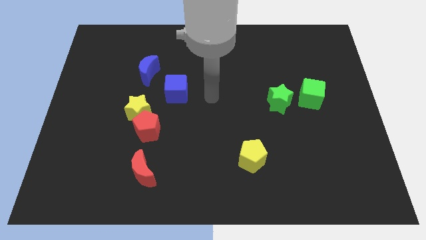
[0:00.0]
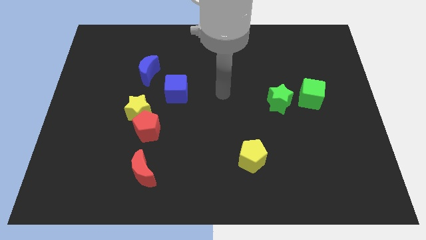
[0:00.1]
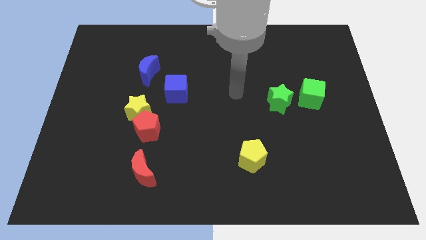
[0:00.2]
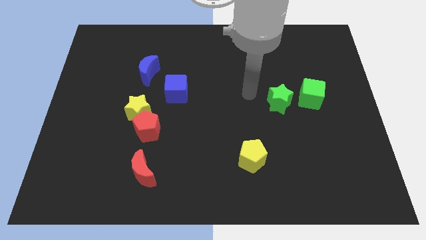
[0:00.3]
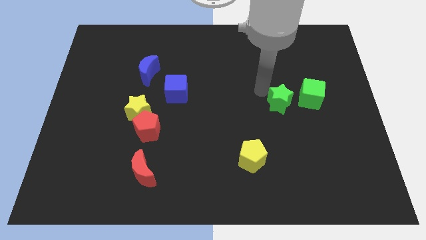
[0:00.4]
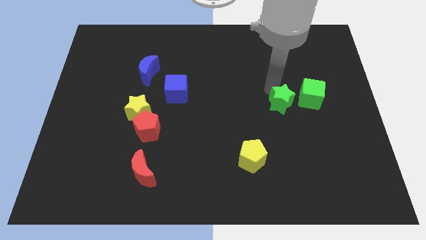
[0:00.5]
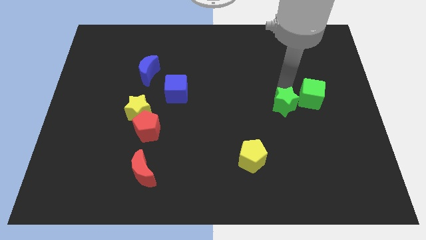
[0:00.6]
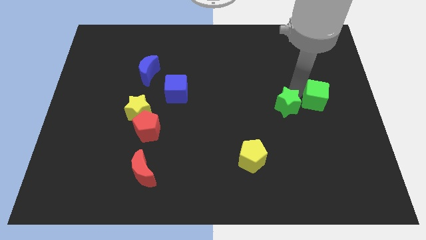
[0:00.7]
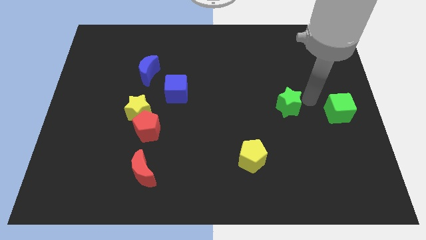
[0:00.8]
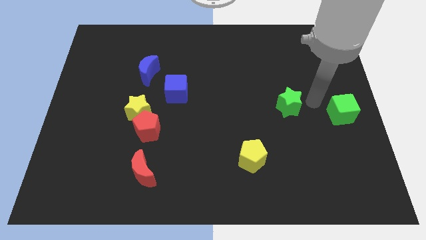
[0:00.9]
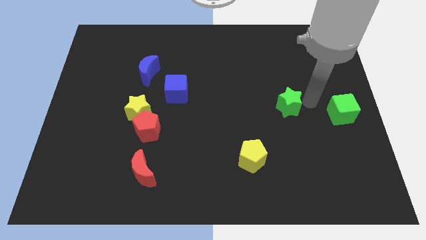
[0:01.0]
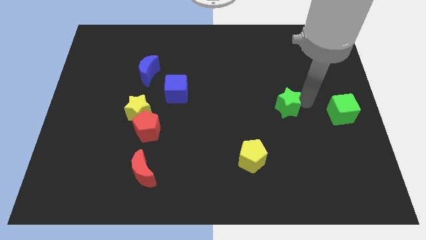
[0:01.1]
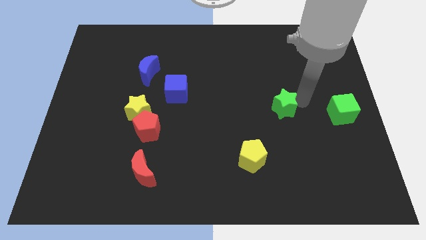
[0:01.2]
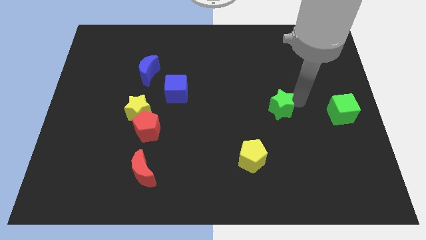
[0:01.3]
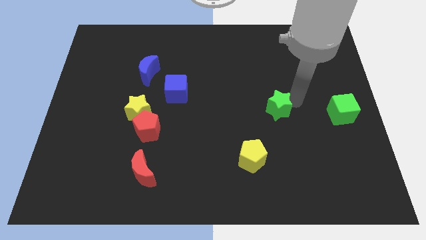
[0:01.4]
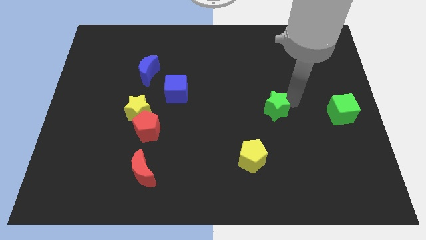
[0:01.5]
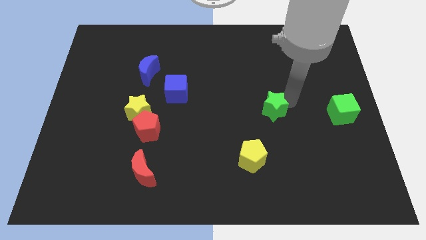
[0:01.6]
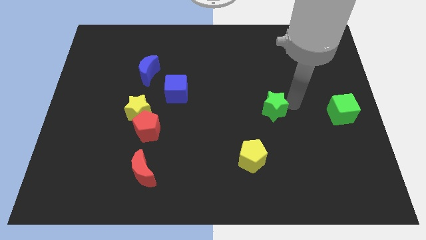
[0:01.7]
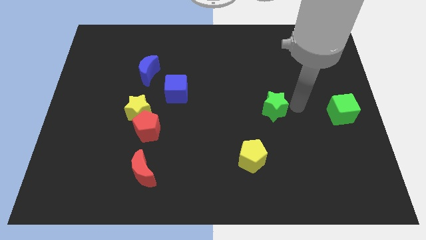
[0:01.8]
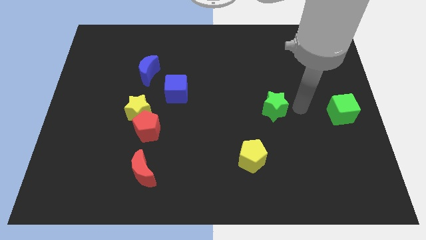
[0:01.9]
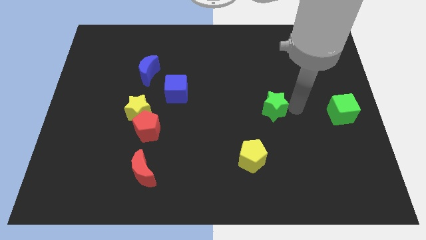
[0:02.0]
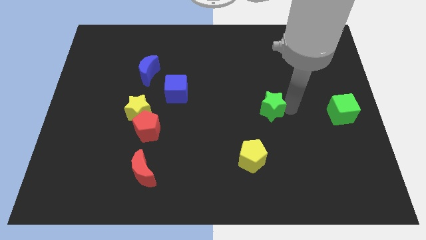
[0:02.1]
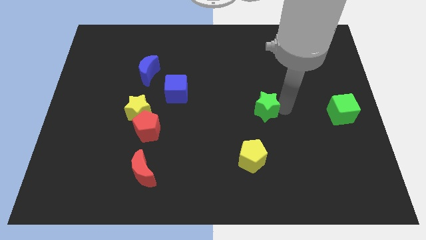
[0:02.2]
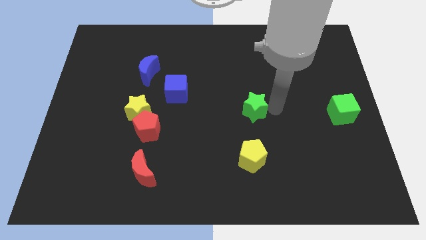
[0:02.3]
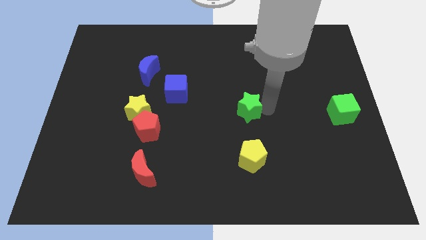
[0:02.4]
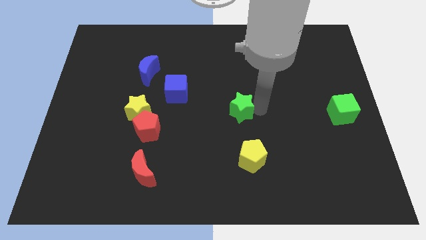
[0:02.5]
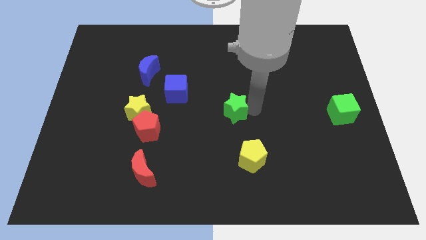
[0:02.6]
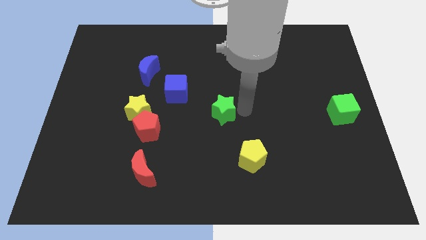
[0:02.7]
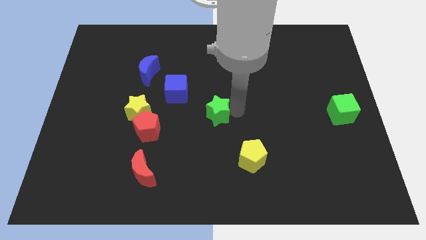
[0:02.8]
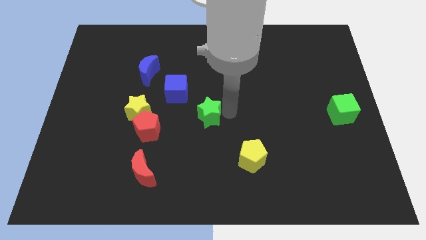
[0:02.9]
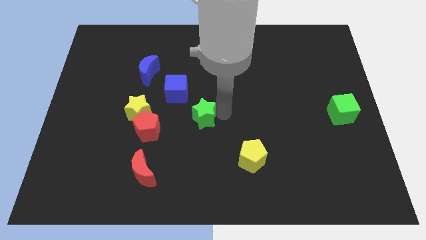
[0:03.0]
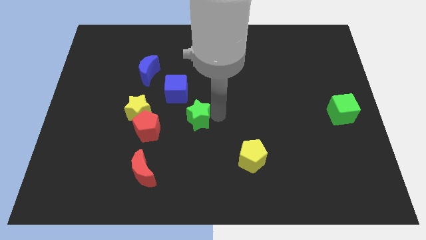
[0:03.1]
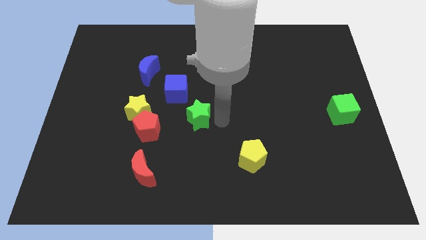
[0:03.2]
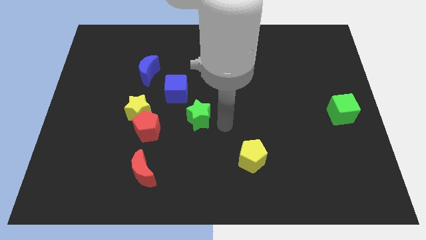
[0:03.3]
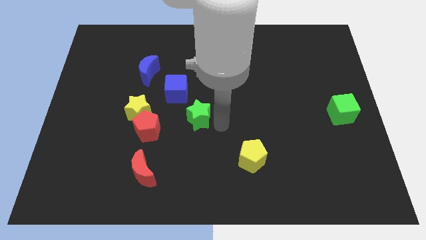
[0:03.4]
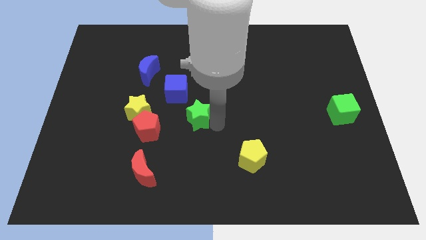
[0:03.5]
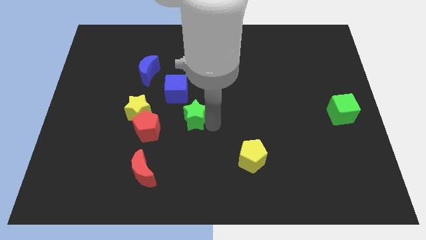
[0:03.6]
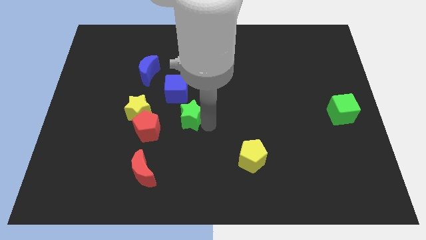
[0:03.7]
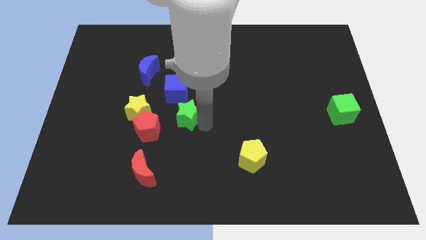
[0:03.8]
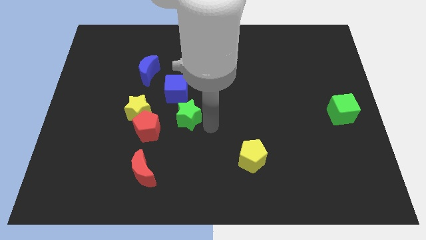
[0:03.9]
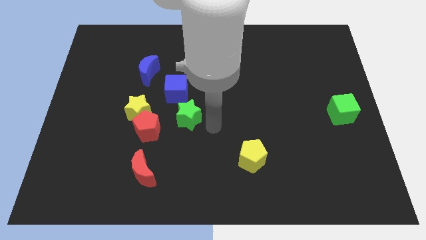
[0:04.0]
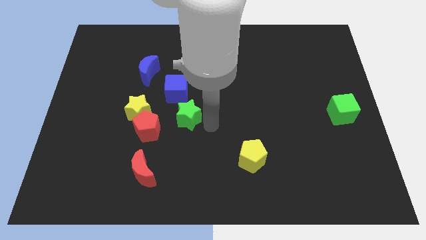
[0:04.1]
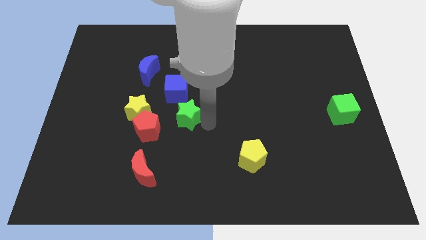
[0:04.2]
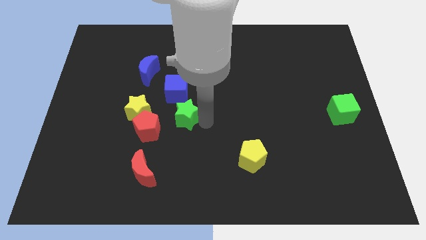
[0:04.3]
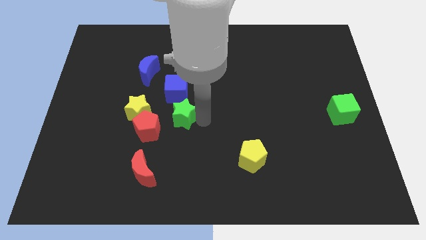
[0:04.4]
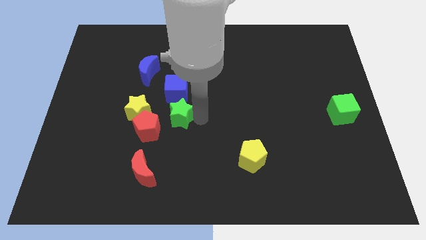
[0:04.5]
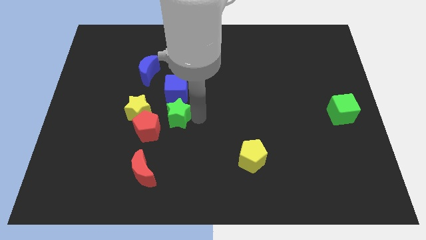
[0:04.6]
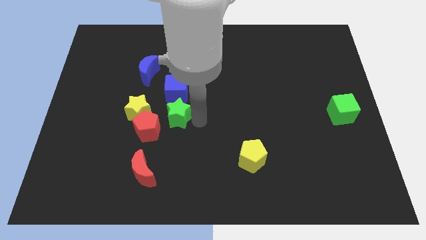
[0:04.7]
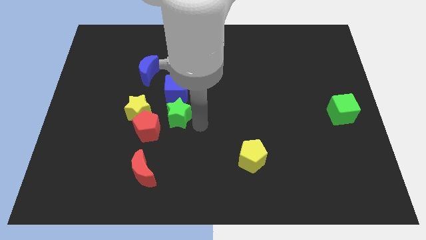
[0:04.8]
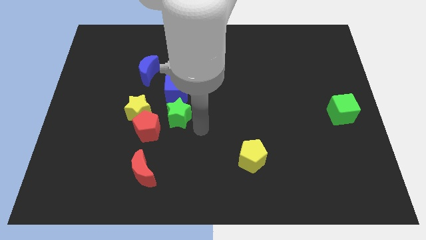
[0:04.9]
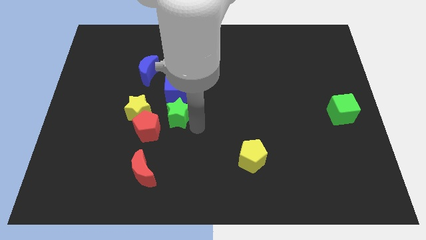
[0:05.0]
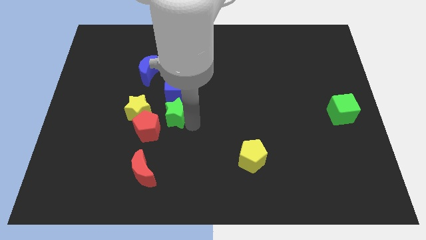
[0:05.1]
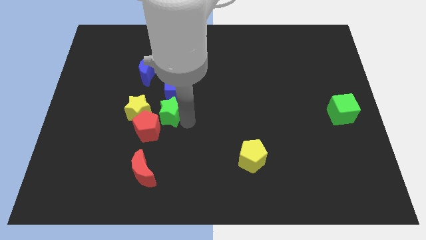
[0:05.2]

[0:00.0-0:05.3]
push the green star to the top of the red pentagon

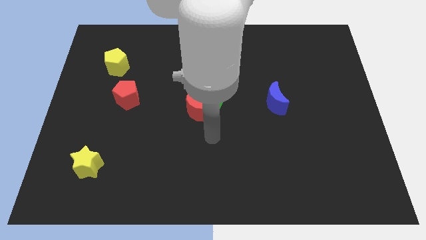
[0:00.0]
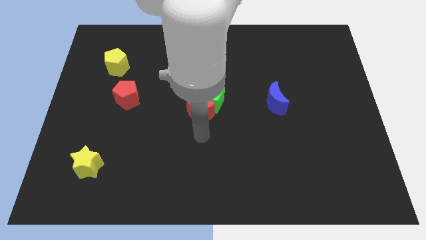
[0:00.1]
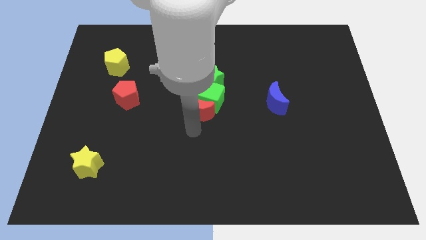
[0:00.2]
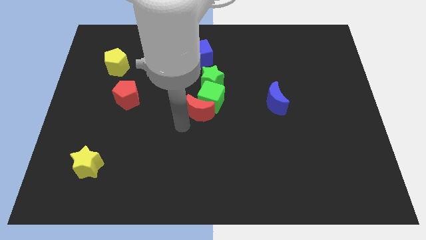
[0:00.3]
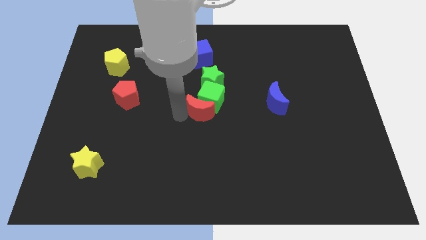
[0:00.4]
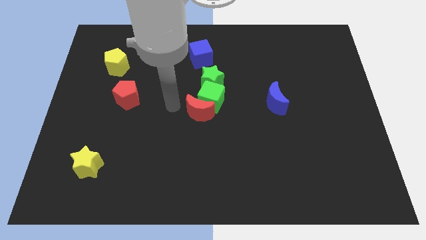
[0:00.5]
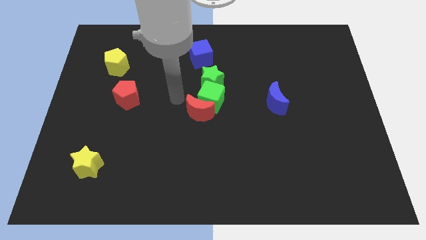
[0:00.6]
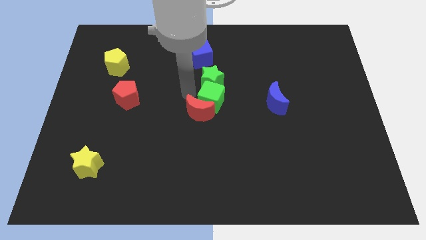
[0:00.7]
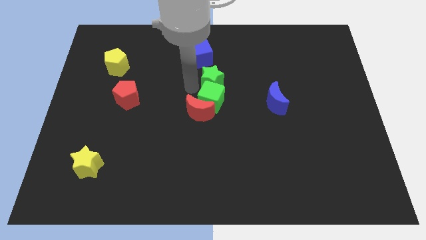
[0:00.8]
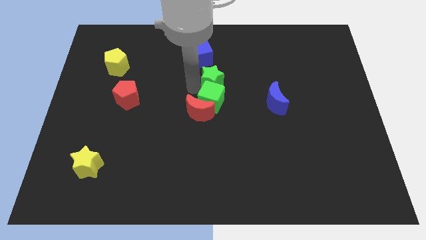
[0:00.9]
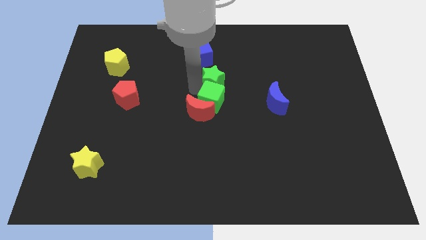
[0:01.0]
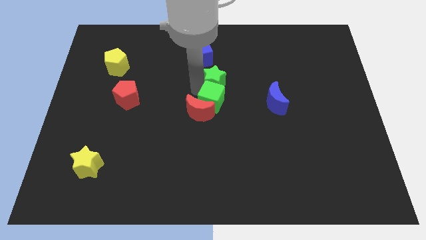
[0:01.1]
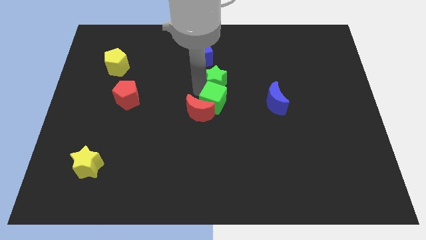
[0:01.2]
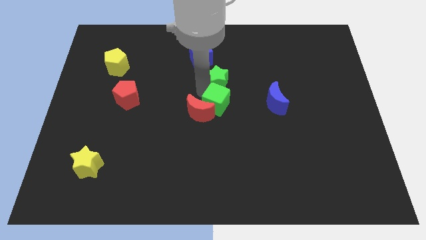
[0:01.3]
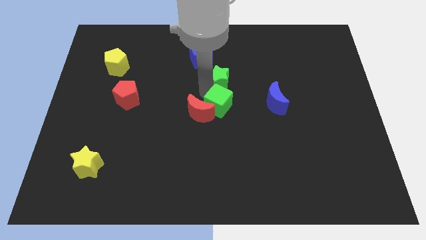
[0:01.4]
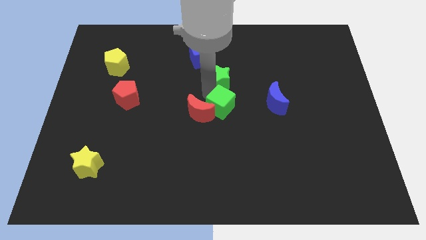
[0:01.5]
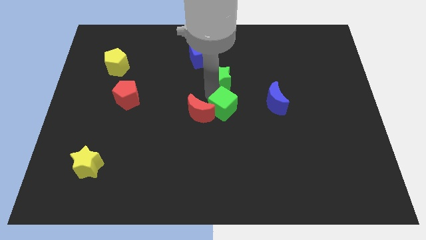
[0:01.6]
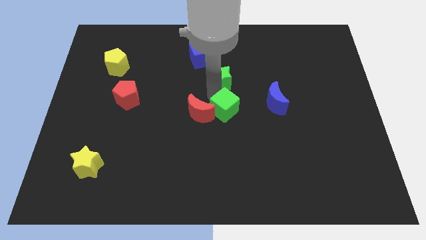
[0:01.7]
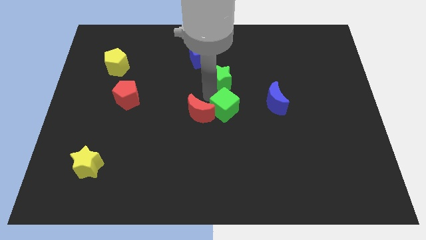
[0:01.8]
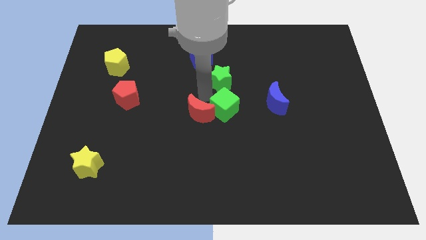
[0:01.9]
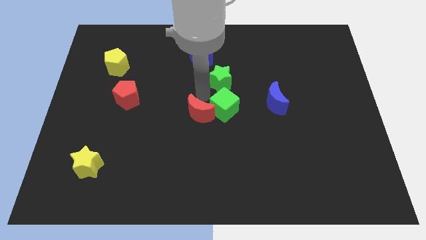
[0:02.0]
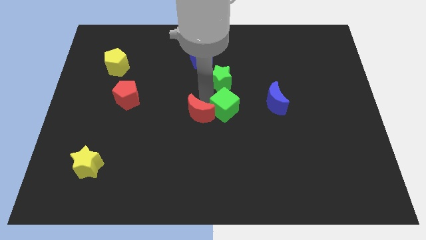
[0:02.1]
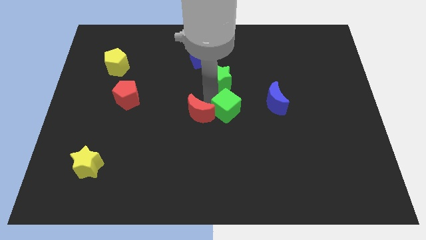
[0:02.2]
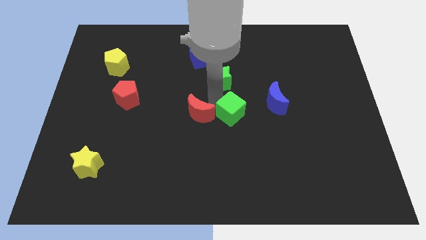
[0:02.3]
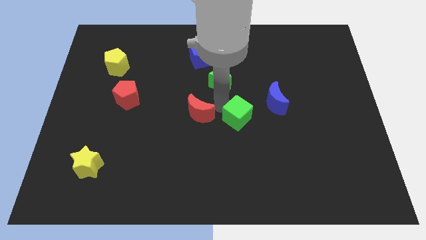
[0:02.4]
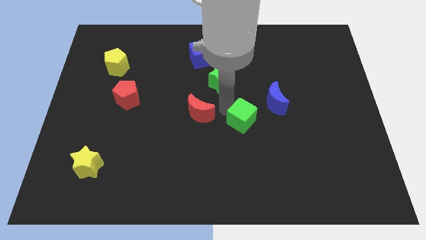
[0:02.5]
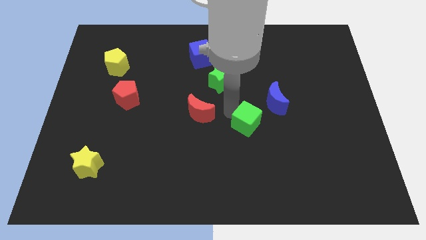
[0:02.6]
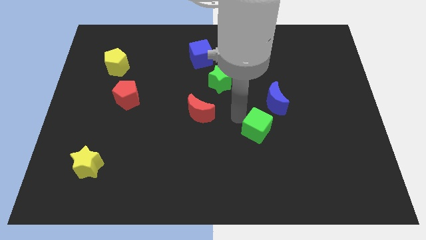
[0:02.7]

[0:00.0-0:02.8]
put the green cube to the bottom side of the blue moon

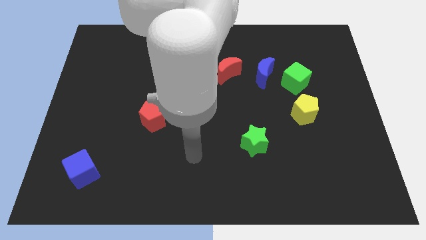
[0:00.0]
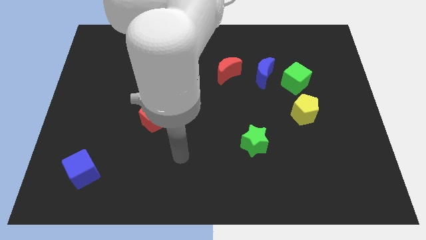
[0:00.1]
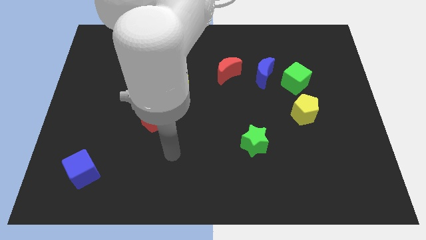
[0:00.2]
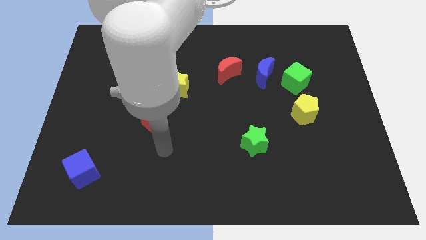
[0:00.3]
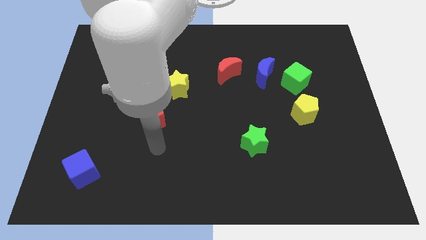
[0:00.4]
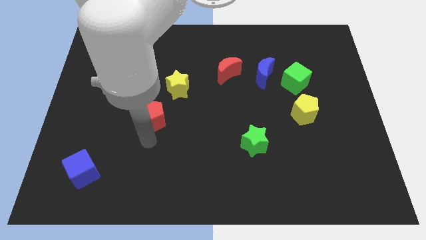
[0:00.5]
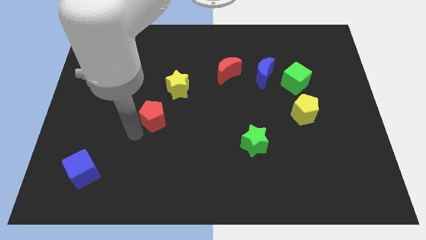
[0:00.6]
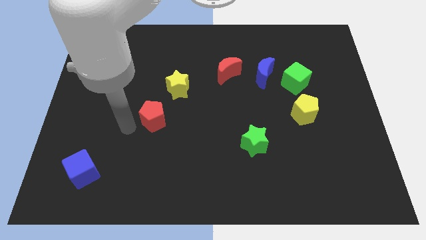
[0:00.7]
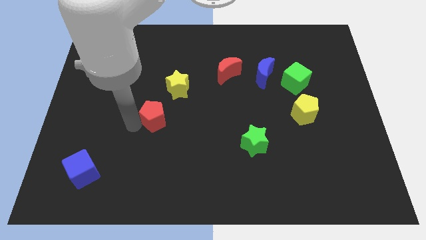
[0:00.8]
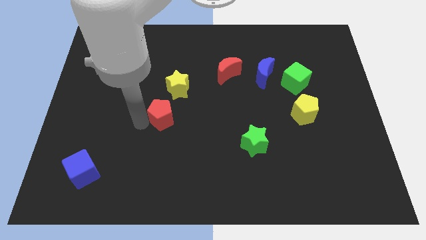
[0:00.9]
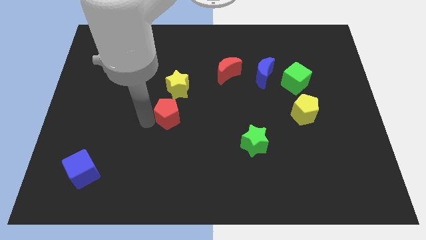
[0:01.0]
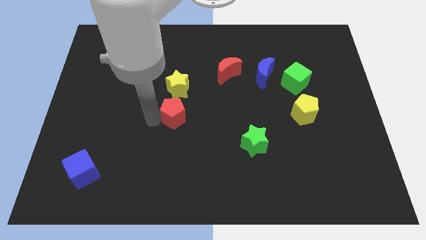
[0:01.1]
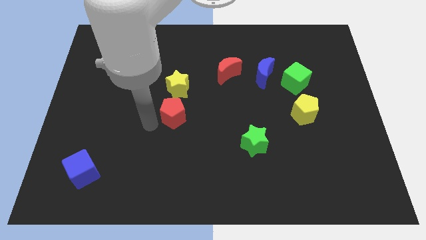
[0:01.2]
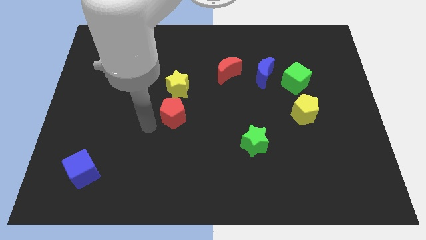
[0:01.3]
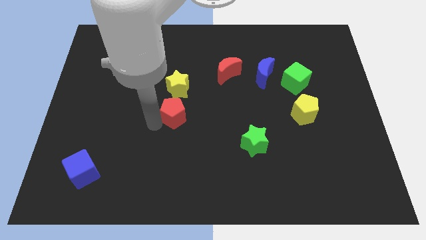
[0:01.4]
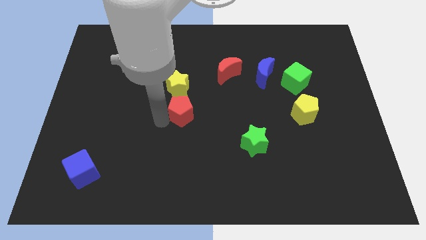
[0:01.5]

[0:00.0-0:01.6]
slide the red pentagon diagonally down and to the right of the yellow star
